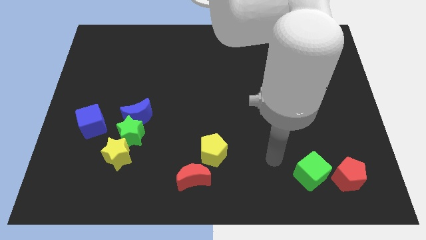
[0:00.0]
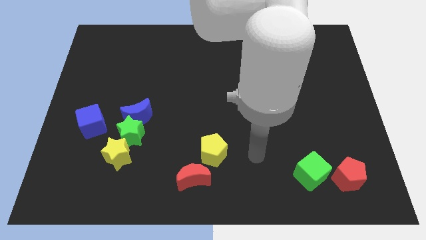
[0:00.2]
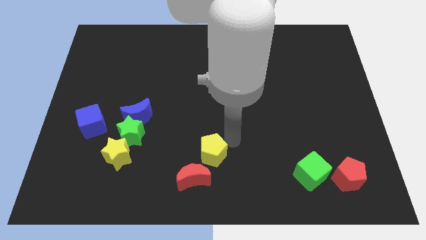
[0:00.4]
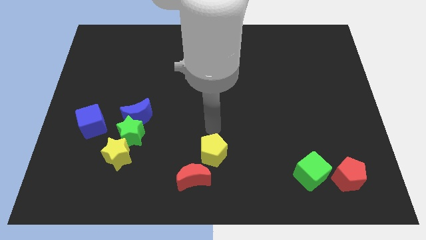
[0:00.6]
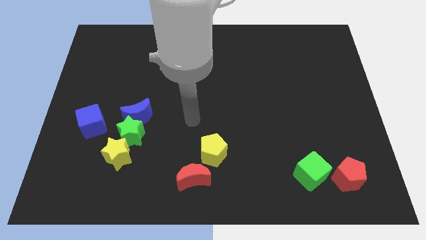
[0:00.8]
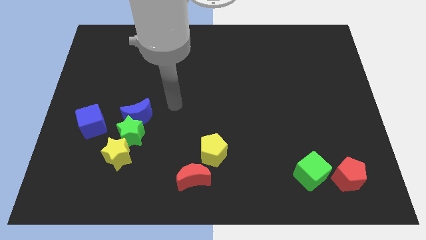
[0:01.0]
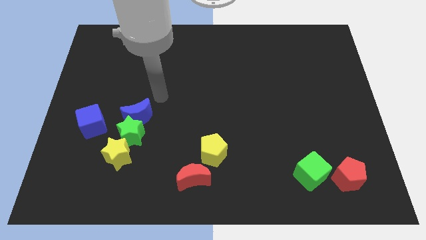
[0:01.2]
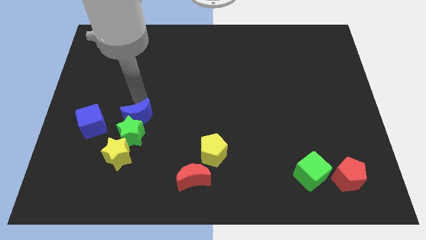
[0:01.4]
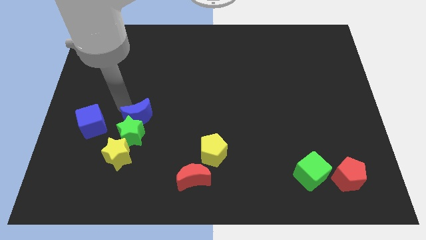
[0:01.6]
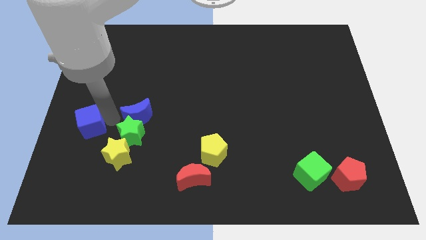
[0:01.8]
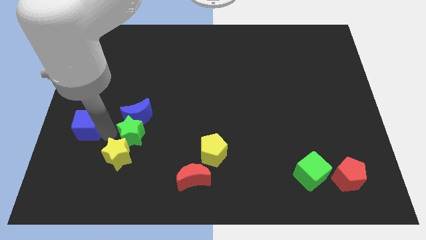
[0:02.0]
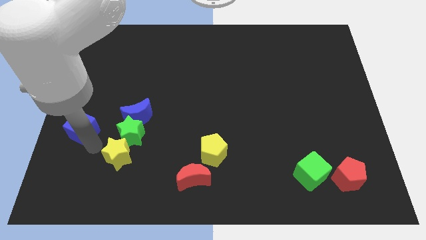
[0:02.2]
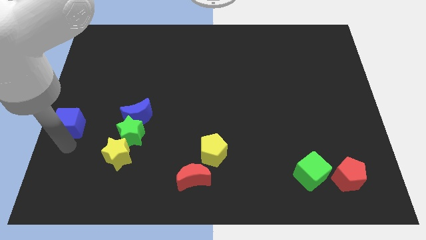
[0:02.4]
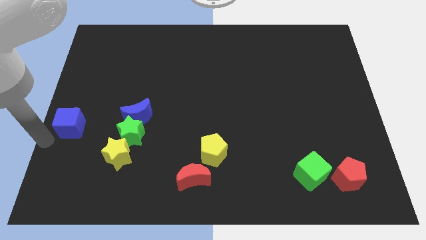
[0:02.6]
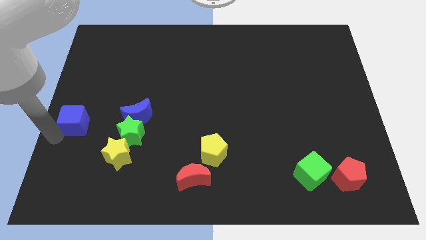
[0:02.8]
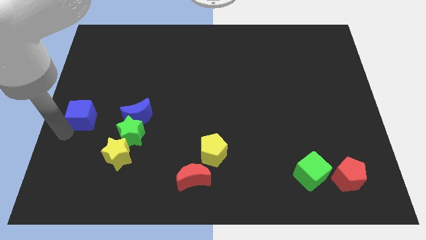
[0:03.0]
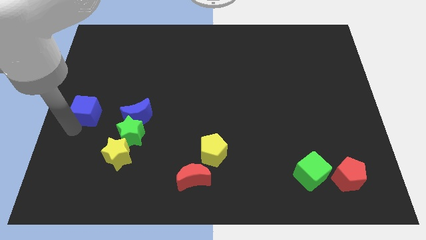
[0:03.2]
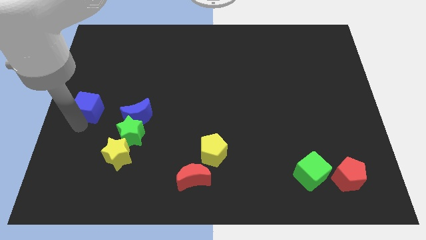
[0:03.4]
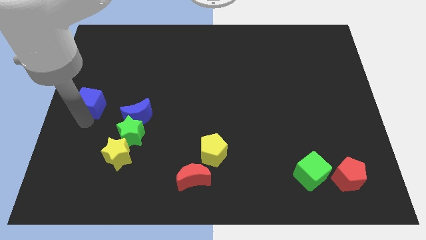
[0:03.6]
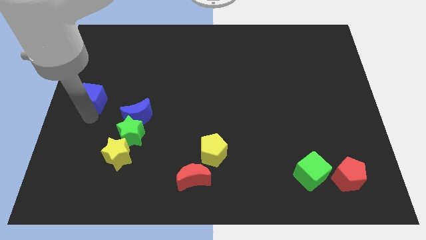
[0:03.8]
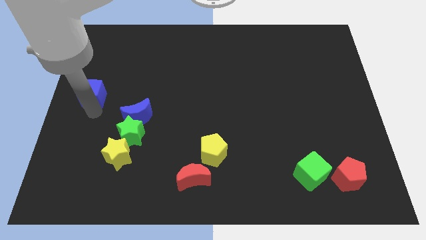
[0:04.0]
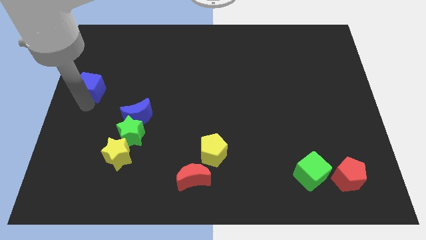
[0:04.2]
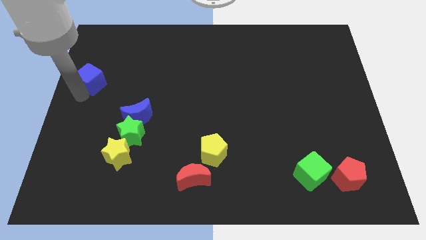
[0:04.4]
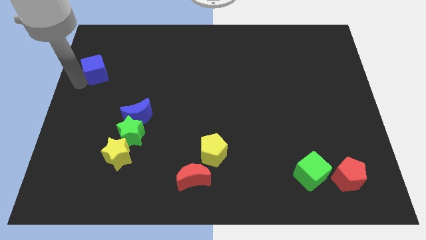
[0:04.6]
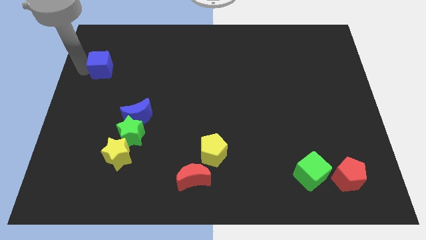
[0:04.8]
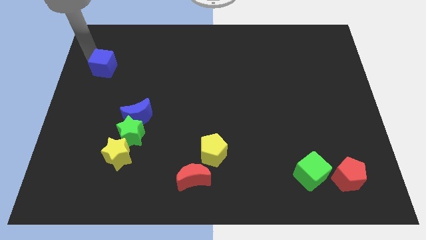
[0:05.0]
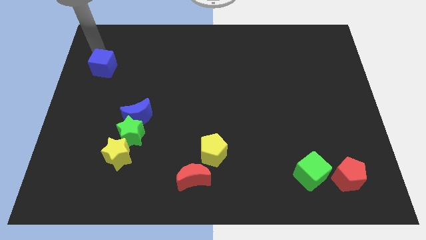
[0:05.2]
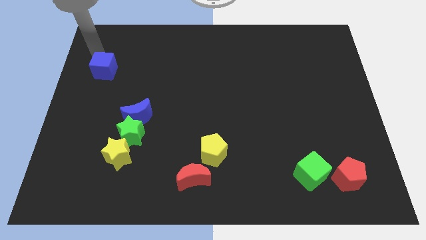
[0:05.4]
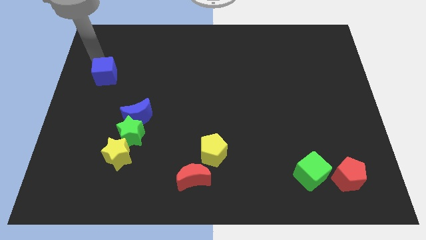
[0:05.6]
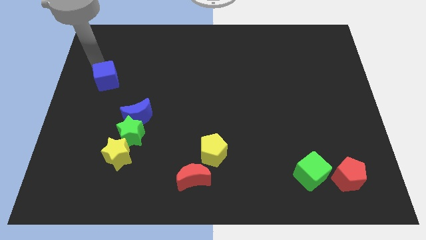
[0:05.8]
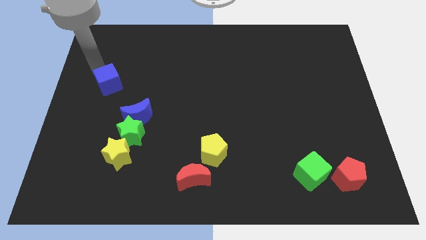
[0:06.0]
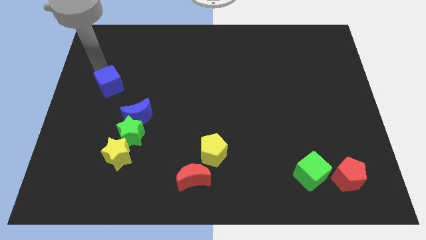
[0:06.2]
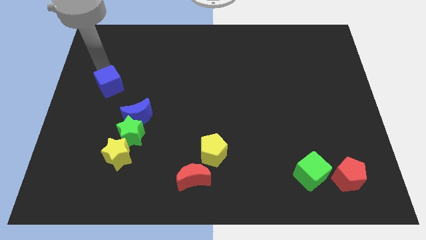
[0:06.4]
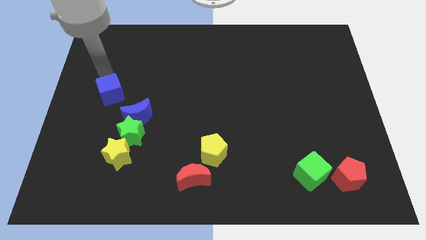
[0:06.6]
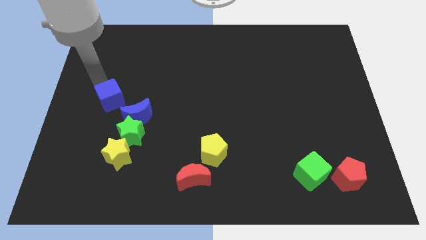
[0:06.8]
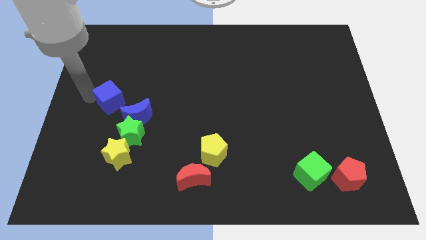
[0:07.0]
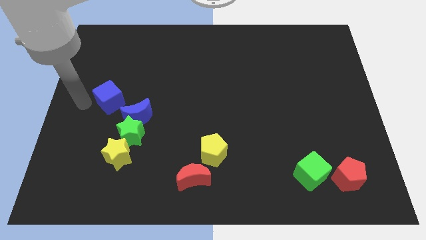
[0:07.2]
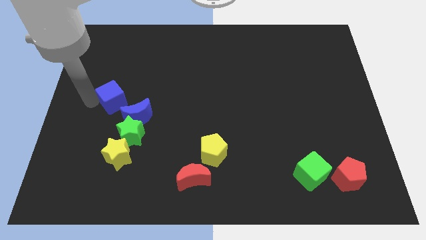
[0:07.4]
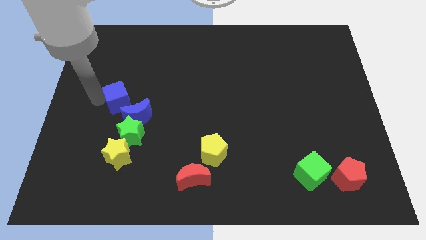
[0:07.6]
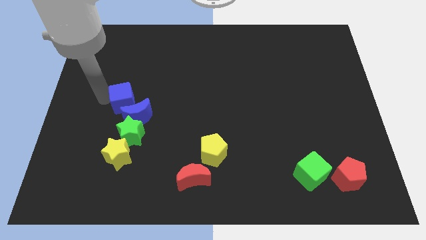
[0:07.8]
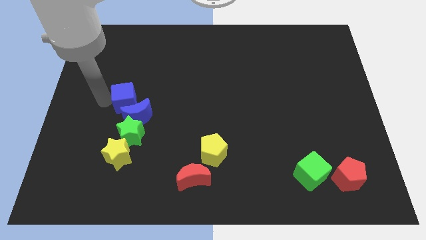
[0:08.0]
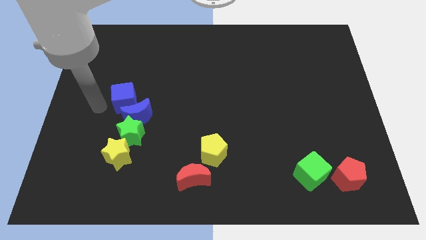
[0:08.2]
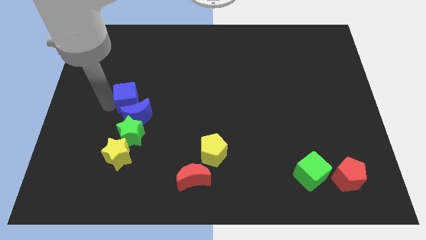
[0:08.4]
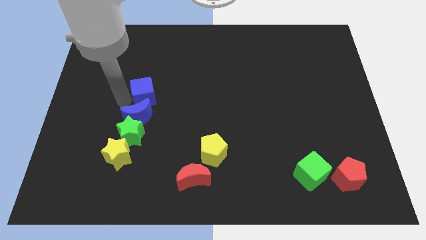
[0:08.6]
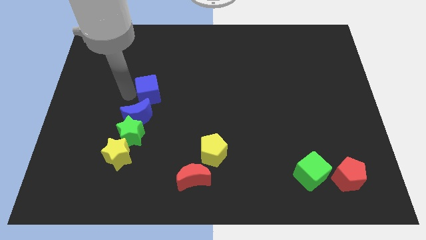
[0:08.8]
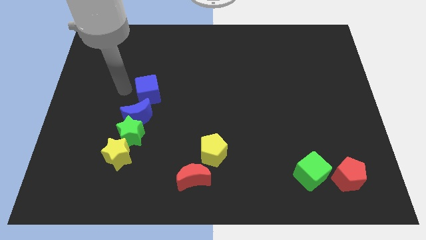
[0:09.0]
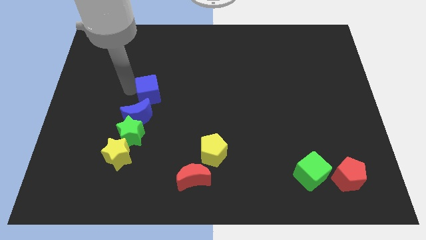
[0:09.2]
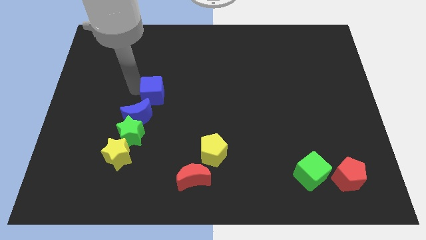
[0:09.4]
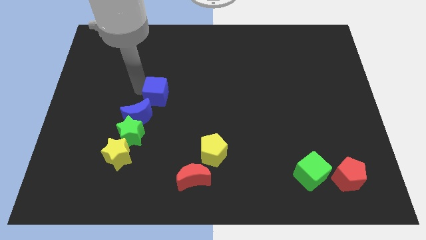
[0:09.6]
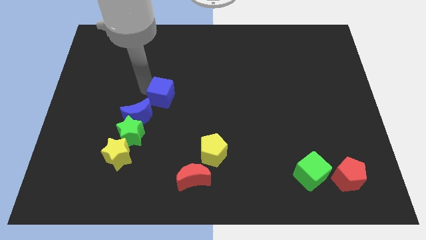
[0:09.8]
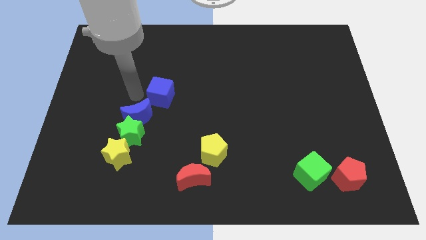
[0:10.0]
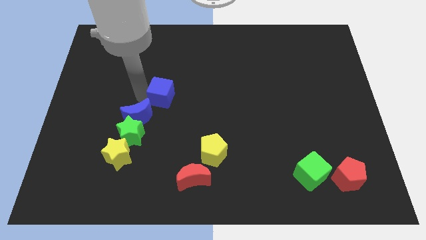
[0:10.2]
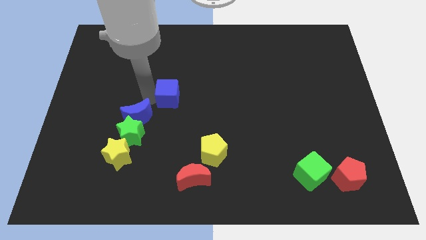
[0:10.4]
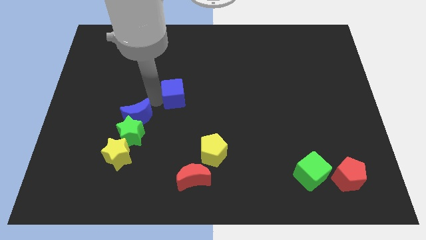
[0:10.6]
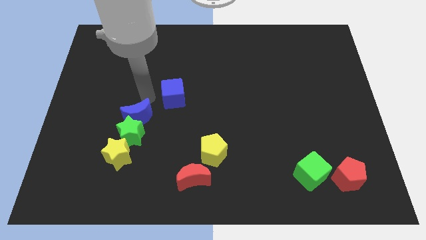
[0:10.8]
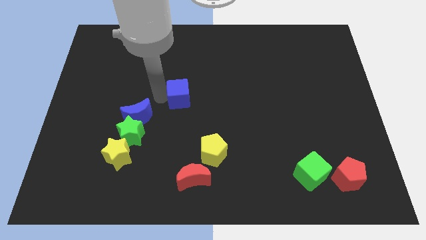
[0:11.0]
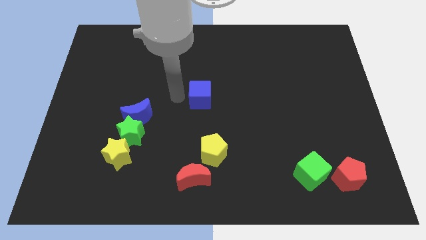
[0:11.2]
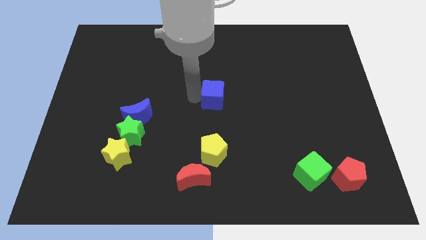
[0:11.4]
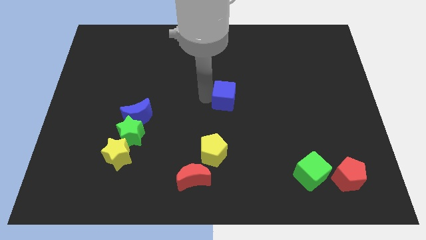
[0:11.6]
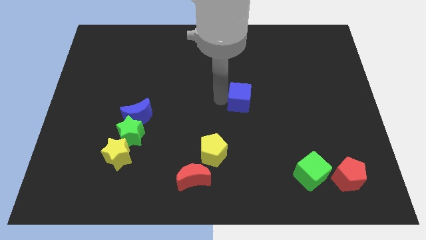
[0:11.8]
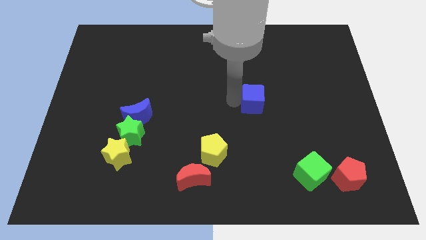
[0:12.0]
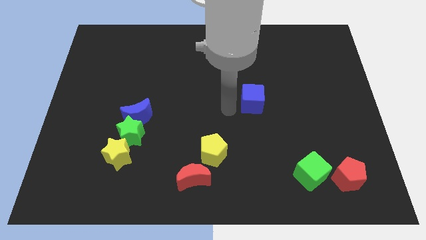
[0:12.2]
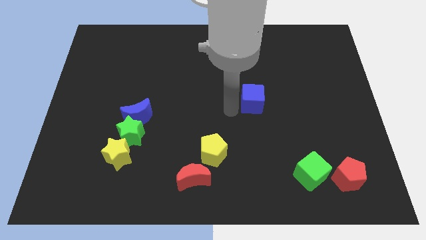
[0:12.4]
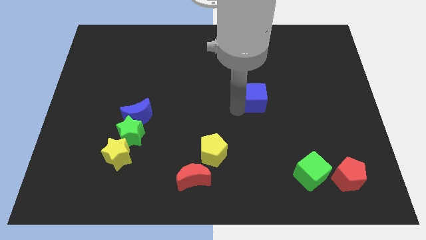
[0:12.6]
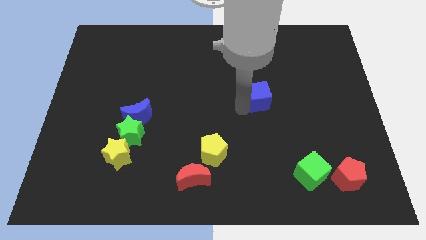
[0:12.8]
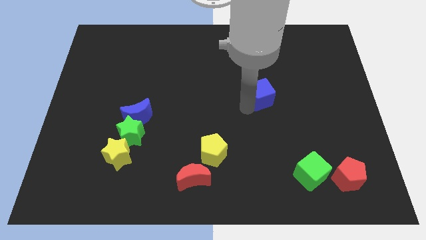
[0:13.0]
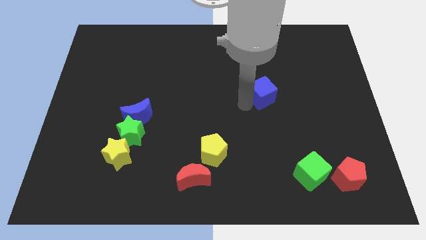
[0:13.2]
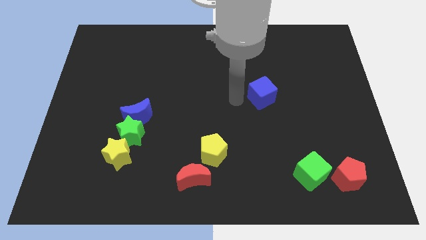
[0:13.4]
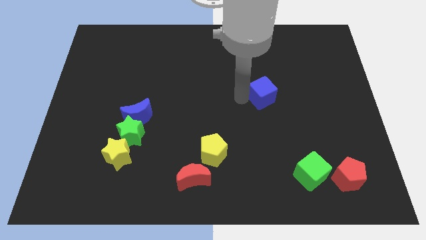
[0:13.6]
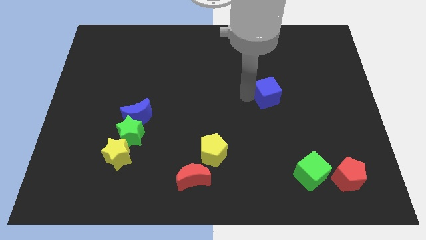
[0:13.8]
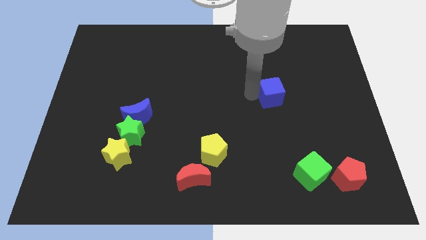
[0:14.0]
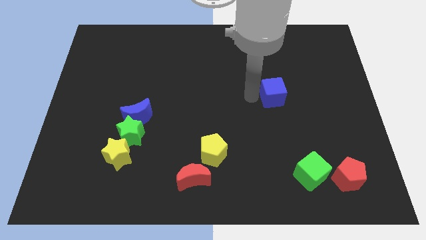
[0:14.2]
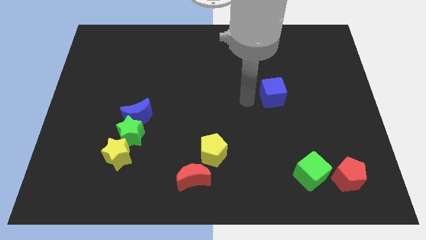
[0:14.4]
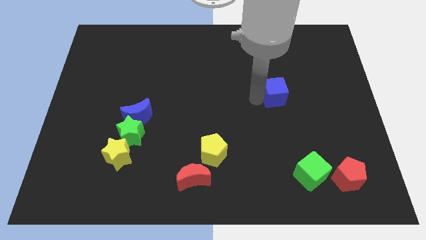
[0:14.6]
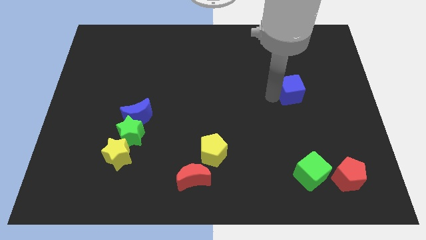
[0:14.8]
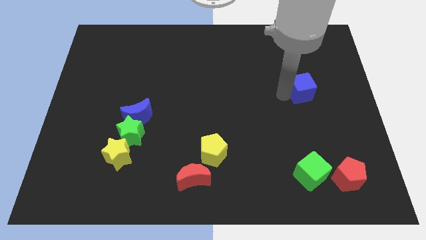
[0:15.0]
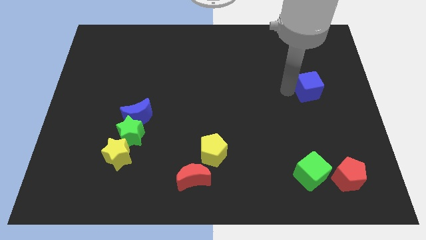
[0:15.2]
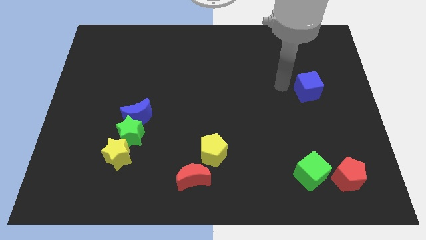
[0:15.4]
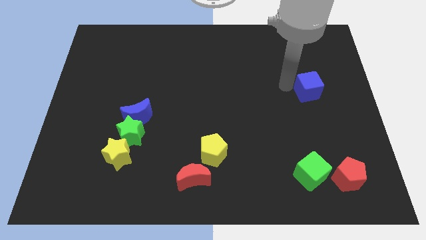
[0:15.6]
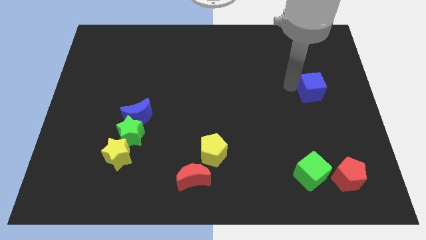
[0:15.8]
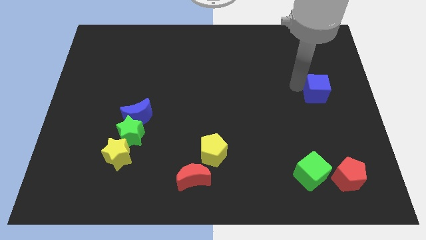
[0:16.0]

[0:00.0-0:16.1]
push the blue cube to the right side

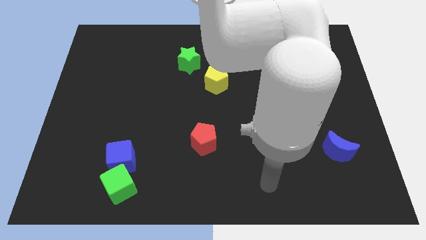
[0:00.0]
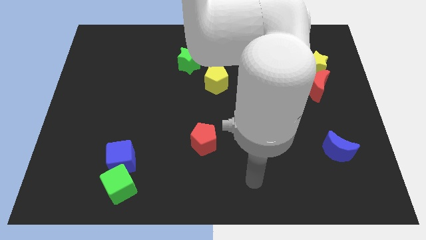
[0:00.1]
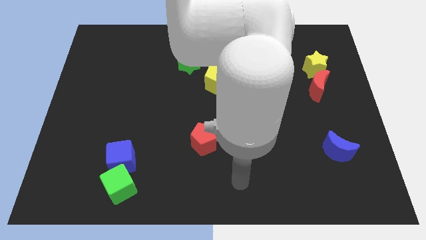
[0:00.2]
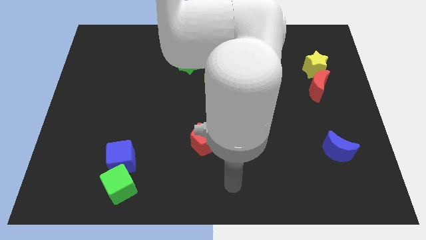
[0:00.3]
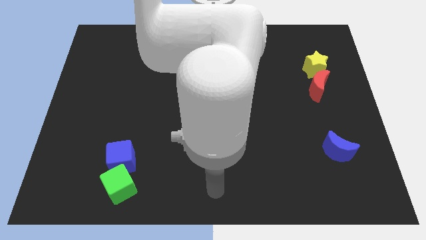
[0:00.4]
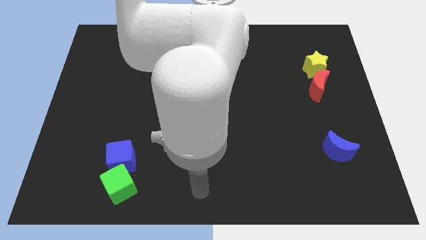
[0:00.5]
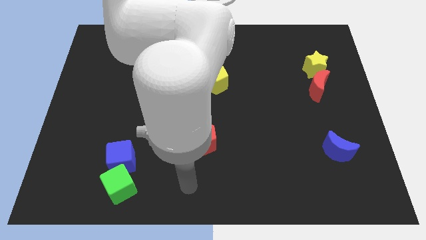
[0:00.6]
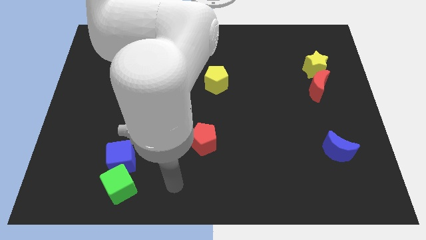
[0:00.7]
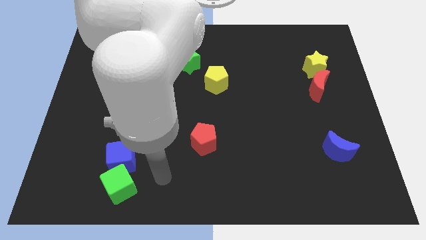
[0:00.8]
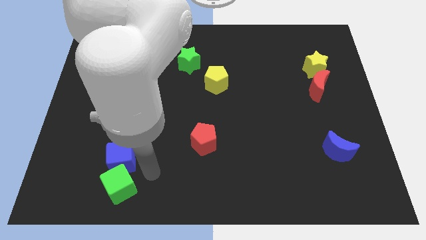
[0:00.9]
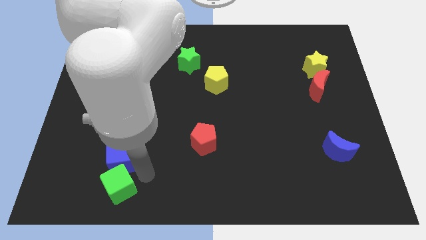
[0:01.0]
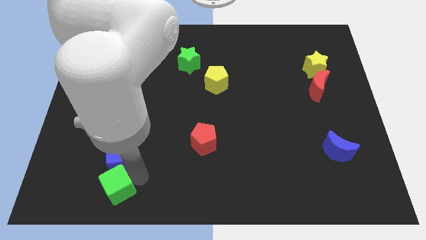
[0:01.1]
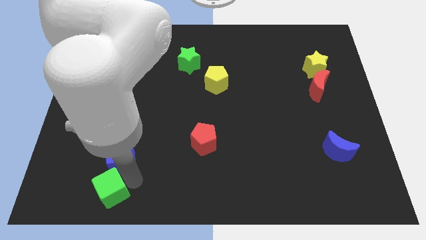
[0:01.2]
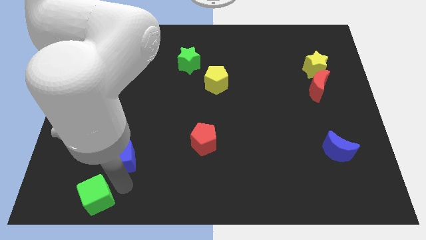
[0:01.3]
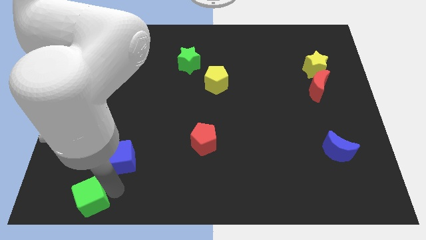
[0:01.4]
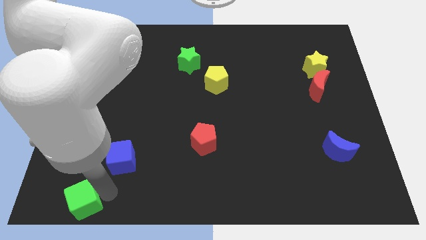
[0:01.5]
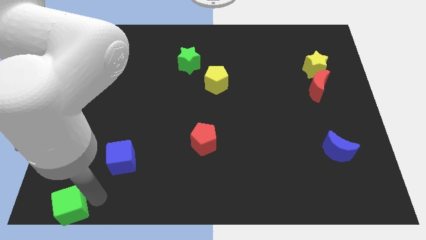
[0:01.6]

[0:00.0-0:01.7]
slide the green cube to the bottom left corner
